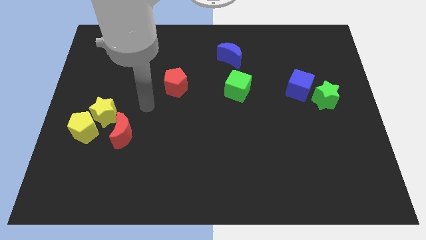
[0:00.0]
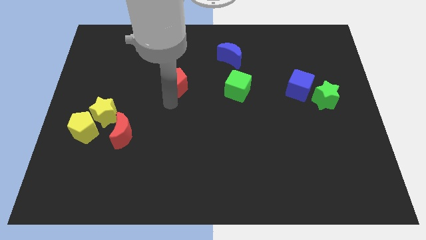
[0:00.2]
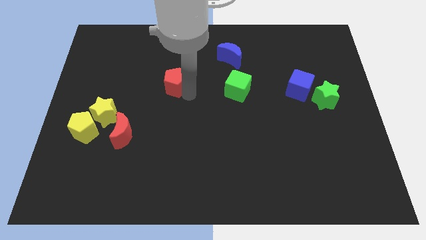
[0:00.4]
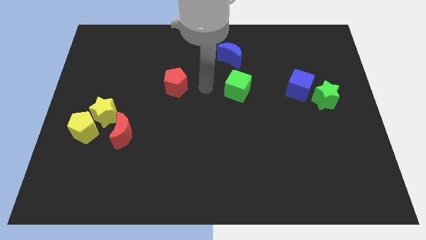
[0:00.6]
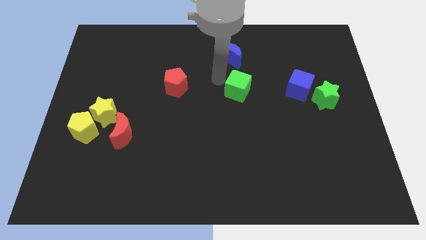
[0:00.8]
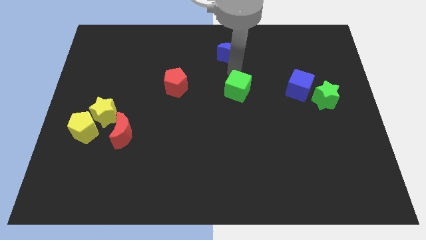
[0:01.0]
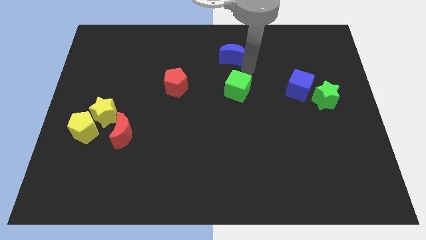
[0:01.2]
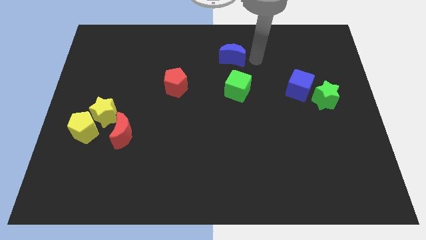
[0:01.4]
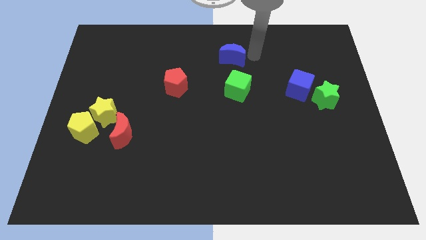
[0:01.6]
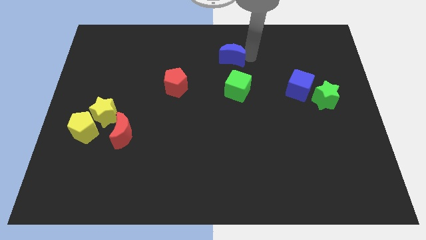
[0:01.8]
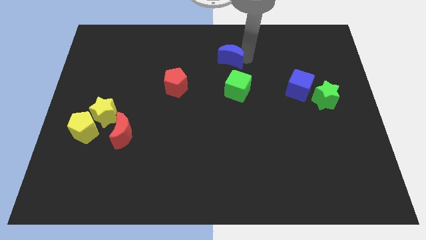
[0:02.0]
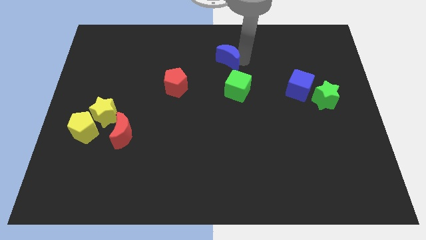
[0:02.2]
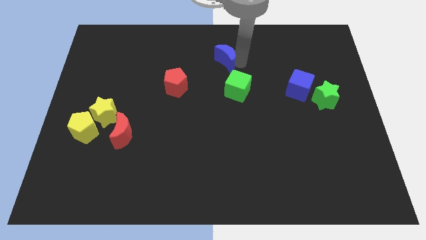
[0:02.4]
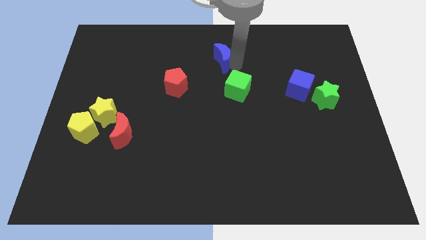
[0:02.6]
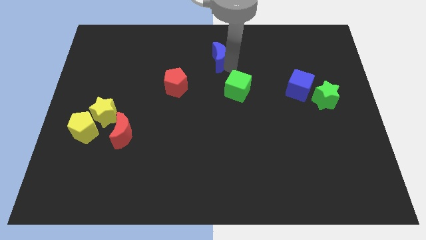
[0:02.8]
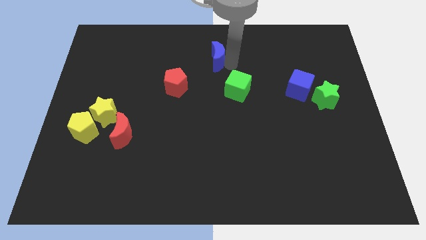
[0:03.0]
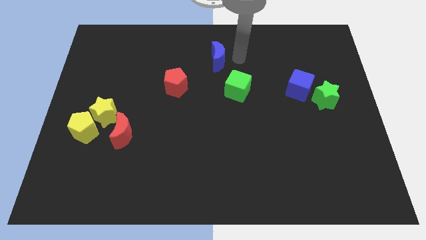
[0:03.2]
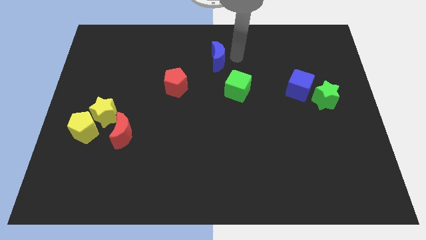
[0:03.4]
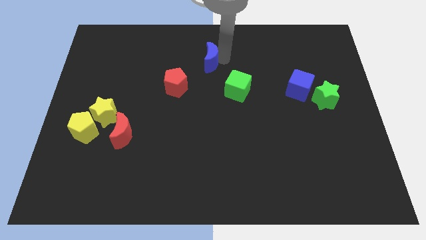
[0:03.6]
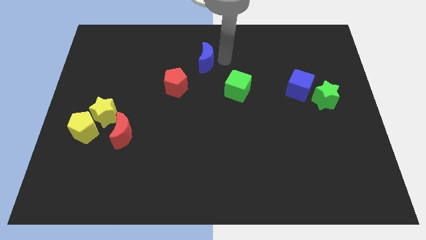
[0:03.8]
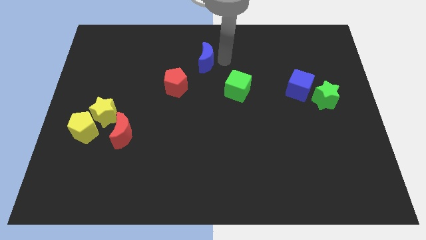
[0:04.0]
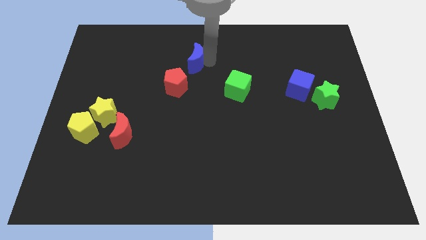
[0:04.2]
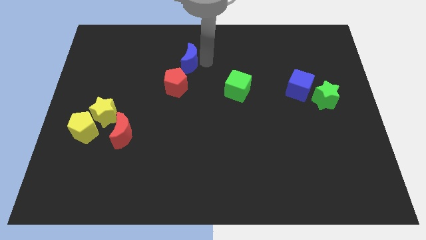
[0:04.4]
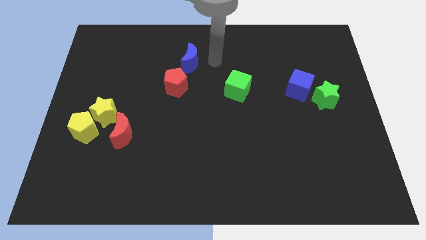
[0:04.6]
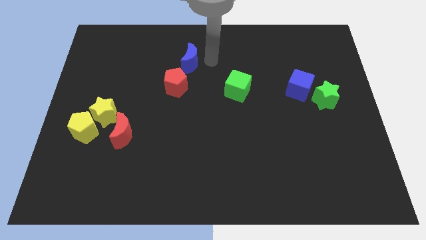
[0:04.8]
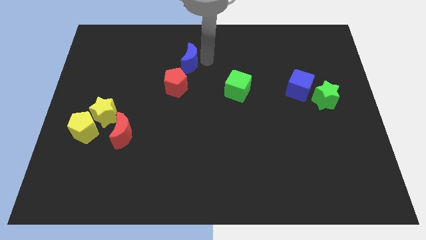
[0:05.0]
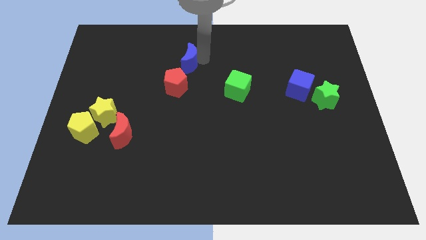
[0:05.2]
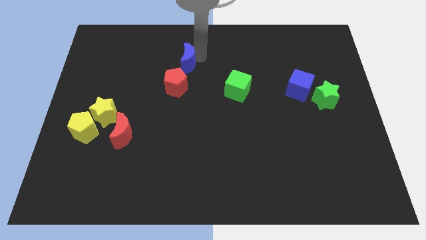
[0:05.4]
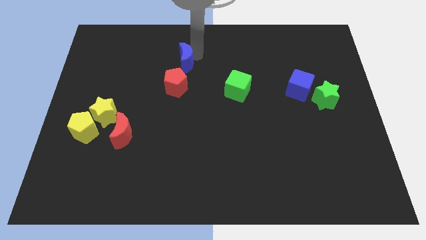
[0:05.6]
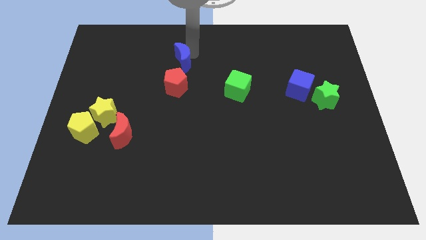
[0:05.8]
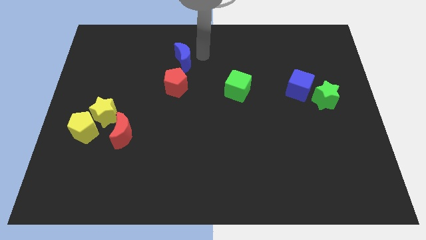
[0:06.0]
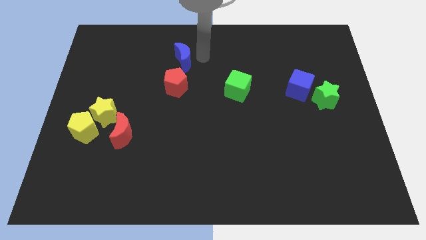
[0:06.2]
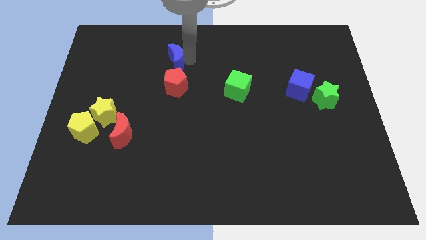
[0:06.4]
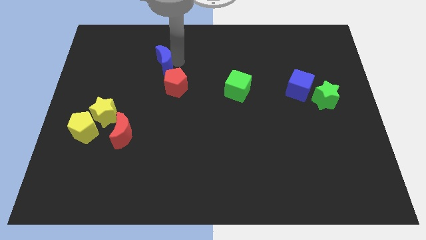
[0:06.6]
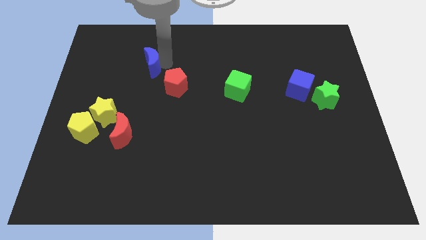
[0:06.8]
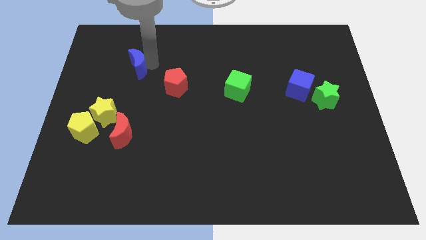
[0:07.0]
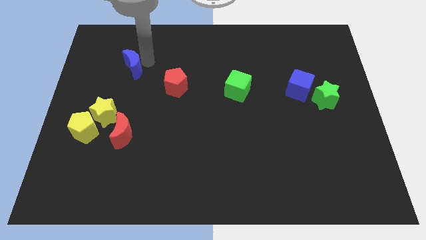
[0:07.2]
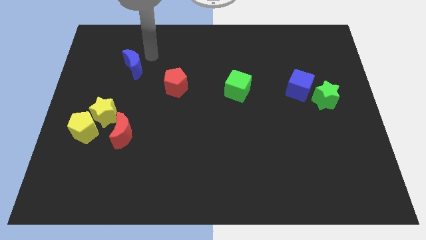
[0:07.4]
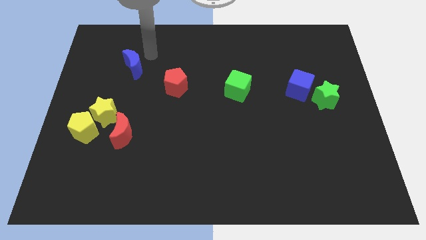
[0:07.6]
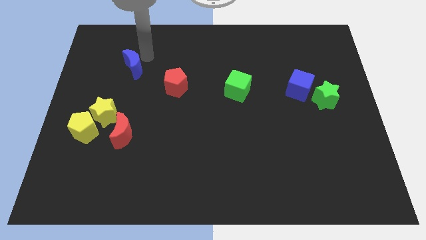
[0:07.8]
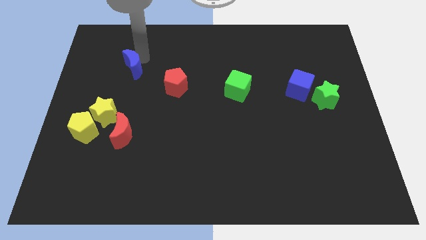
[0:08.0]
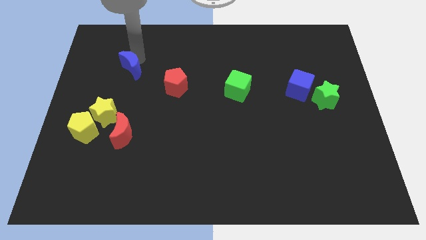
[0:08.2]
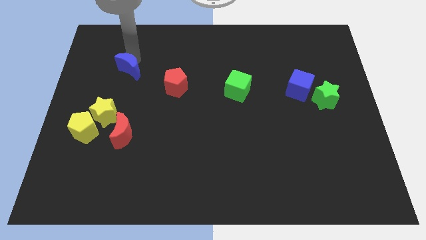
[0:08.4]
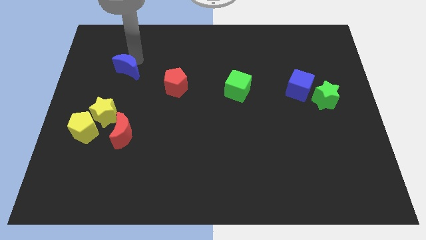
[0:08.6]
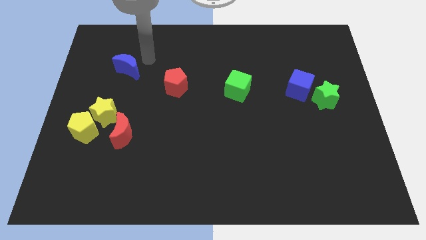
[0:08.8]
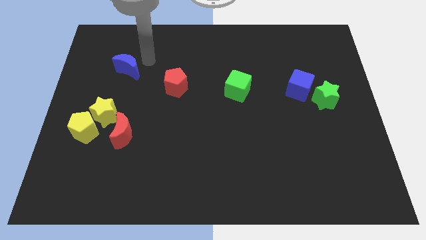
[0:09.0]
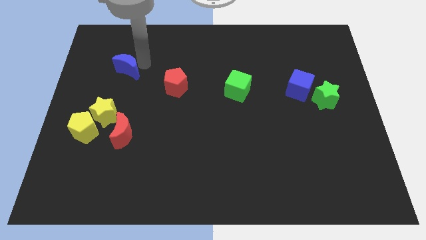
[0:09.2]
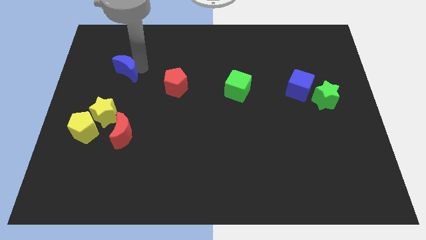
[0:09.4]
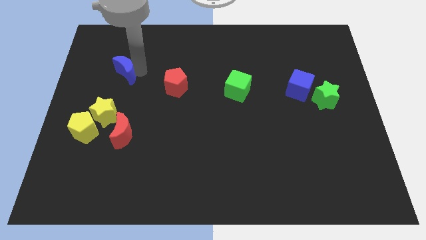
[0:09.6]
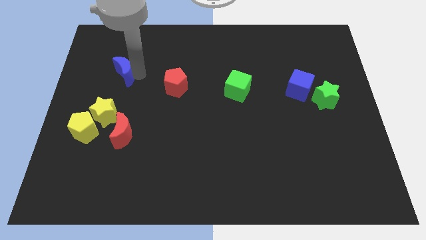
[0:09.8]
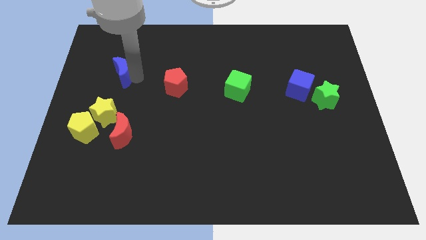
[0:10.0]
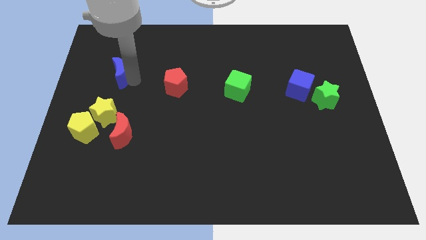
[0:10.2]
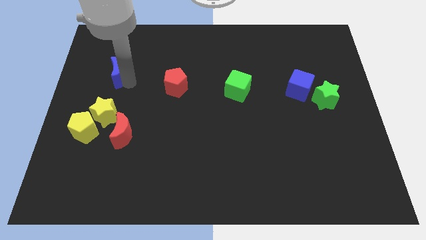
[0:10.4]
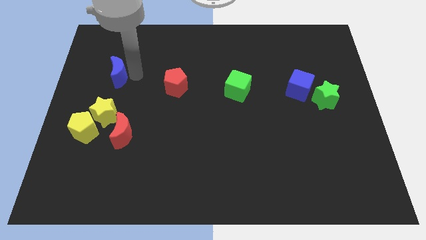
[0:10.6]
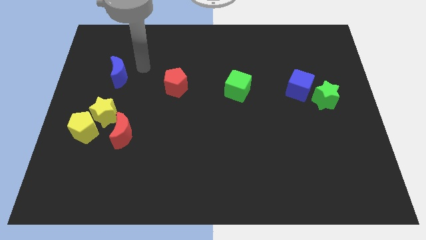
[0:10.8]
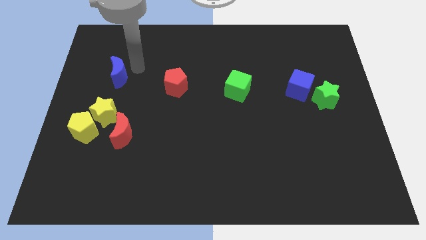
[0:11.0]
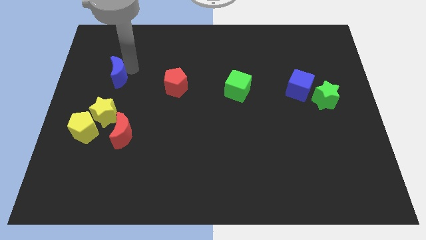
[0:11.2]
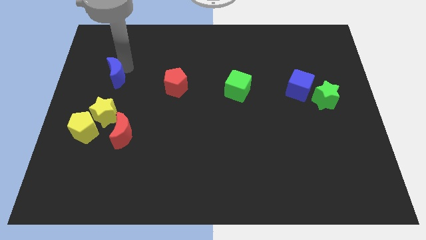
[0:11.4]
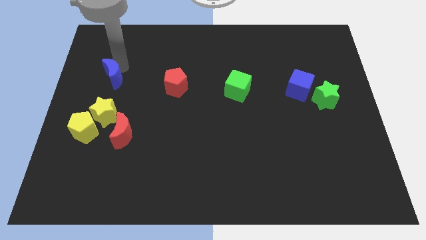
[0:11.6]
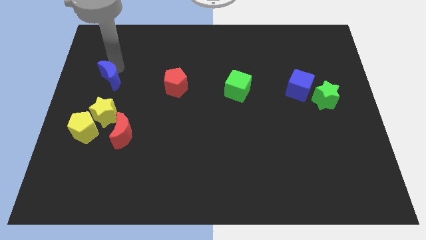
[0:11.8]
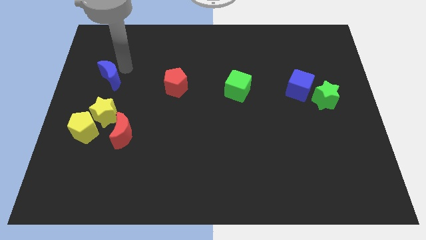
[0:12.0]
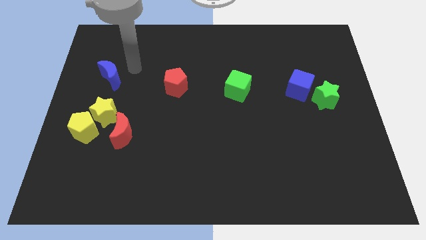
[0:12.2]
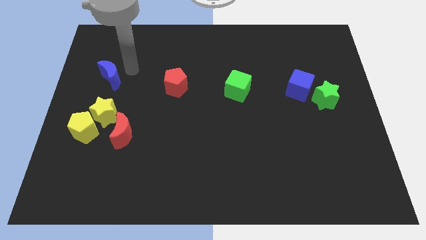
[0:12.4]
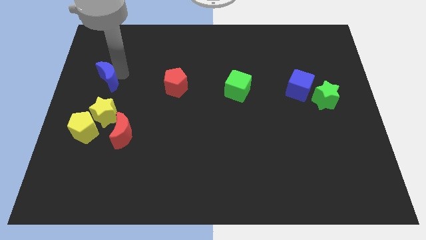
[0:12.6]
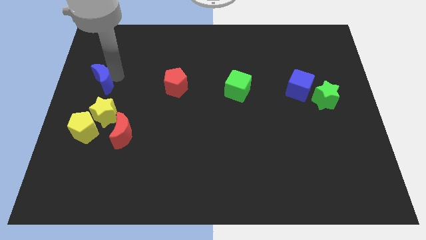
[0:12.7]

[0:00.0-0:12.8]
push the blue moon to the center left
